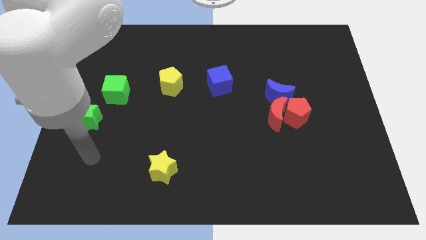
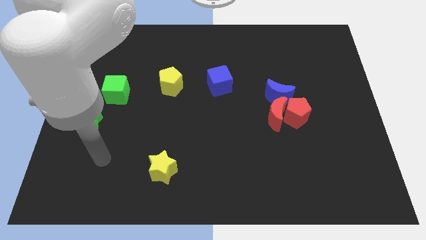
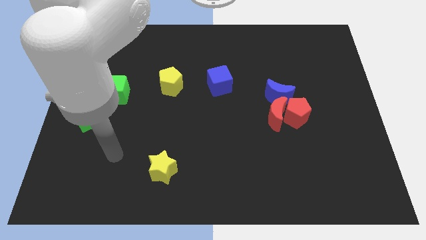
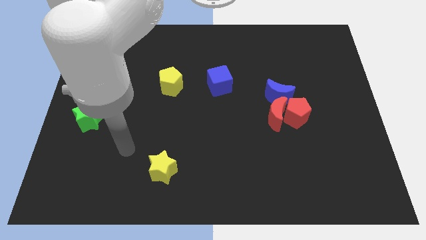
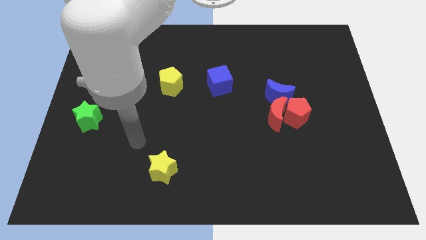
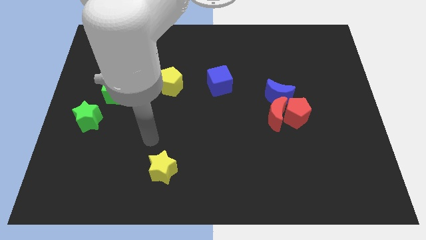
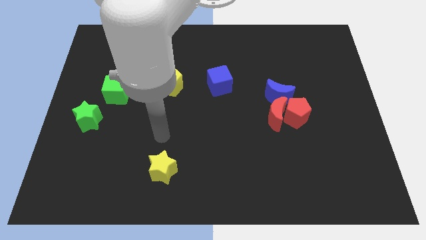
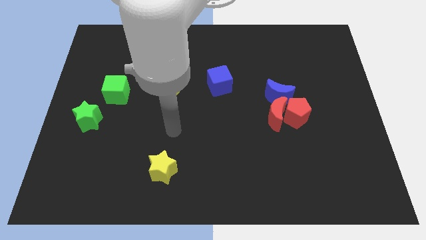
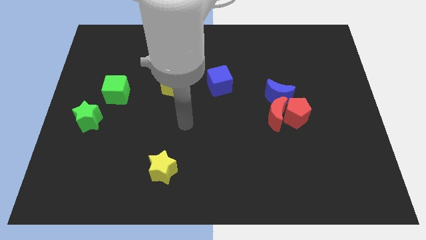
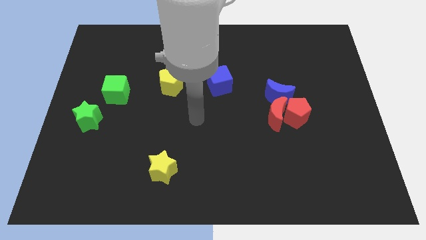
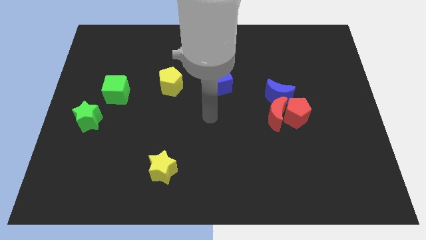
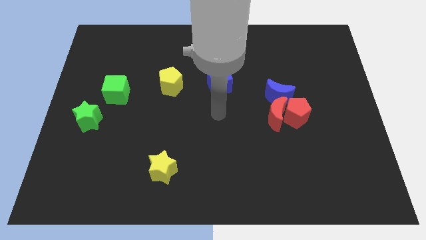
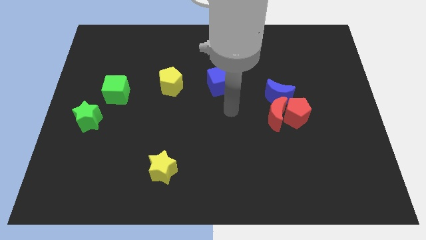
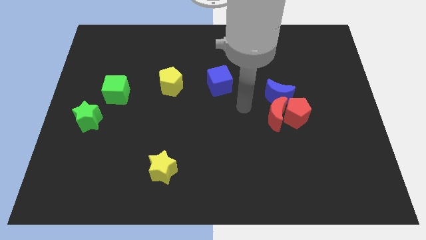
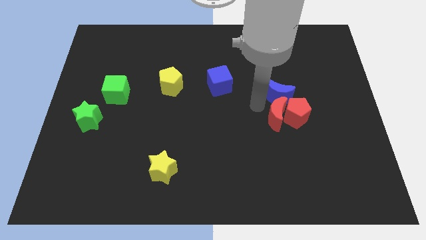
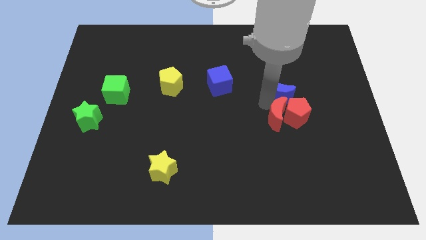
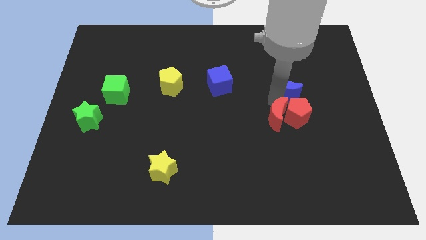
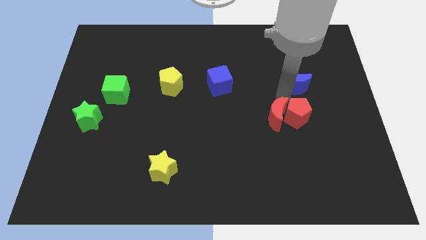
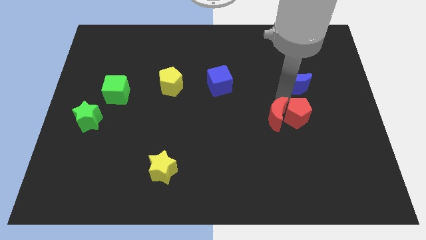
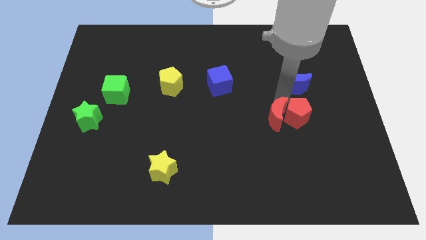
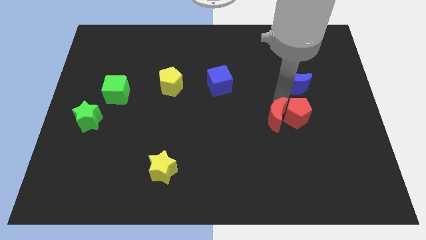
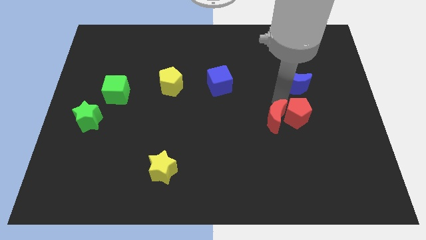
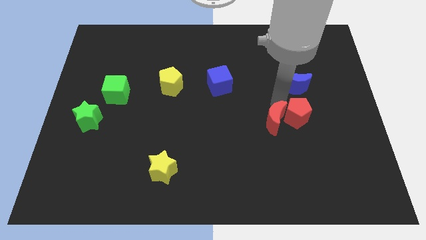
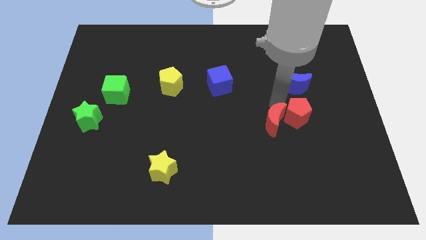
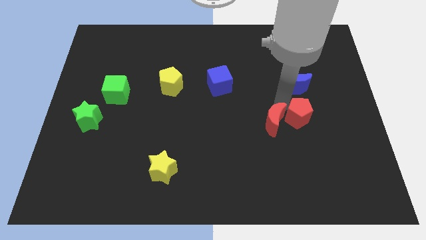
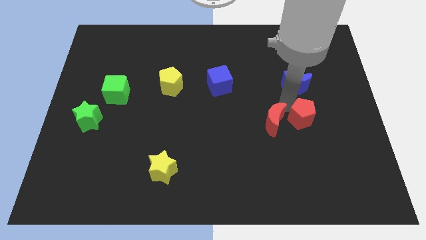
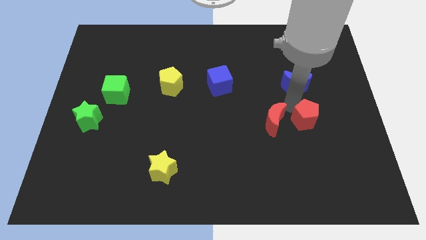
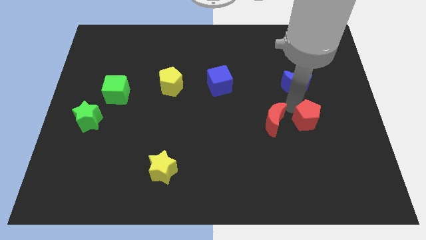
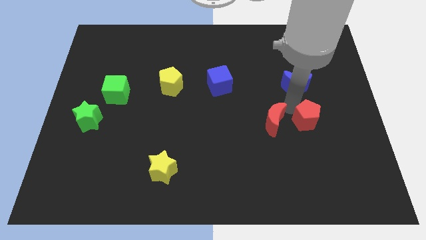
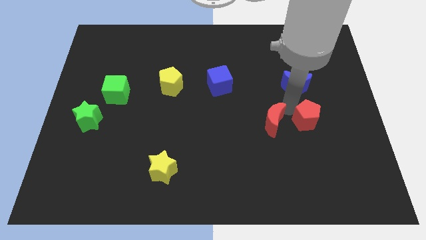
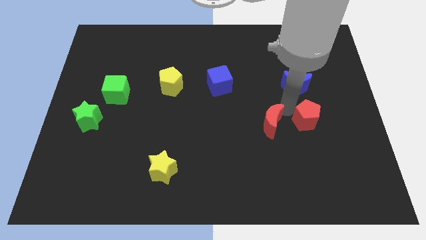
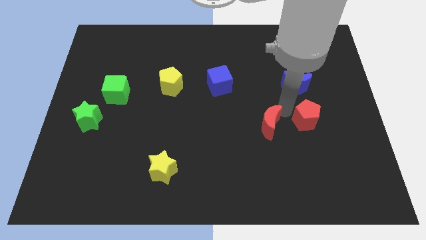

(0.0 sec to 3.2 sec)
separate the red moon from the red pentagon and blue moon

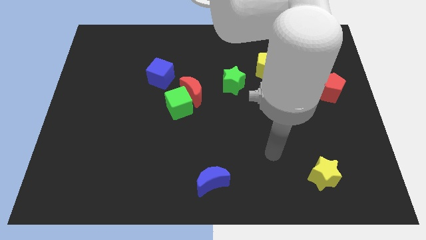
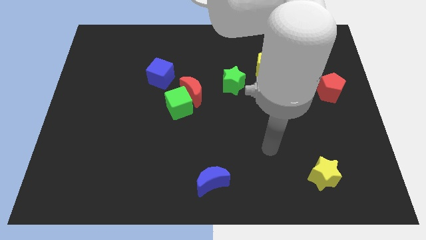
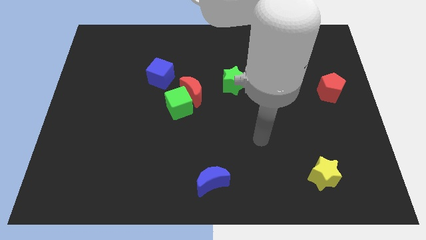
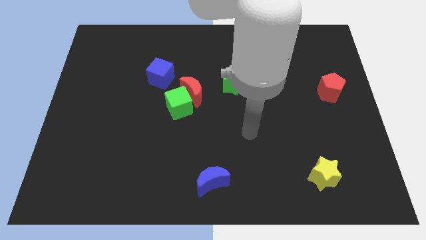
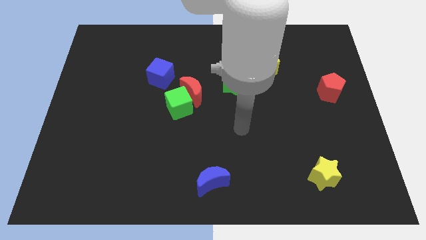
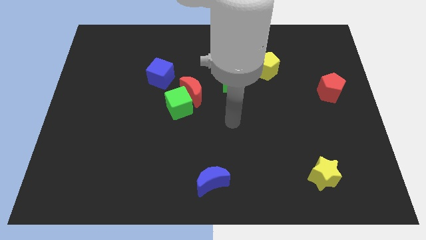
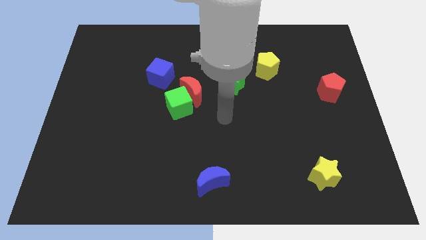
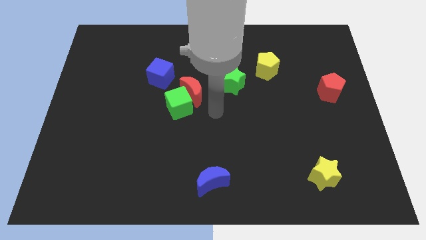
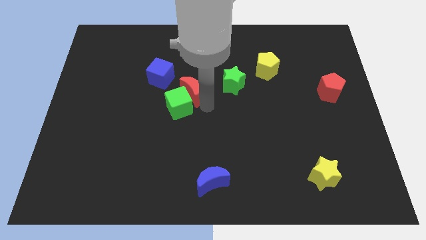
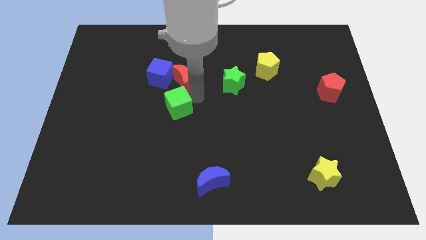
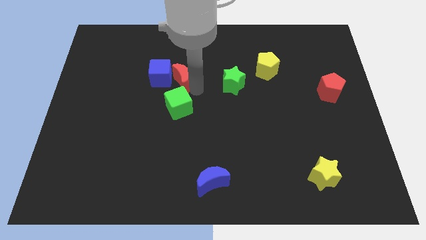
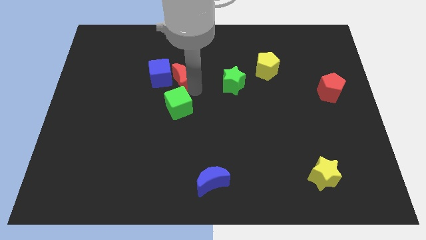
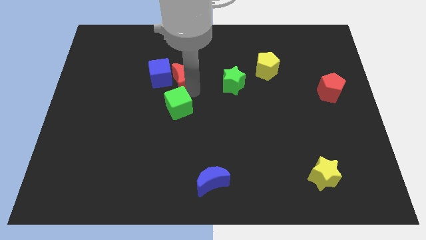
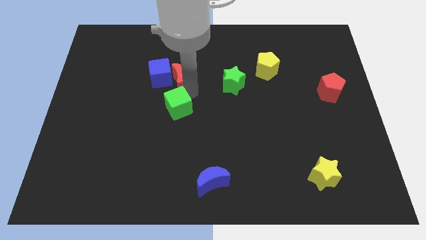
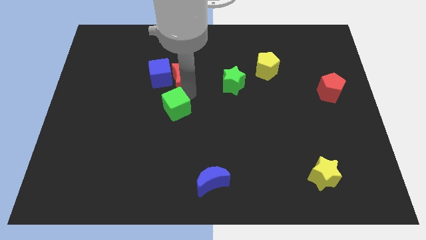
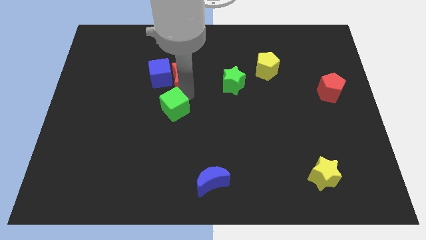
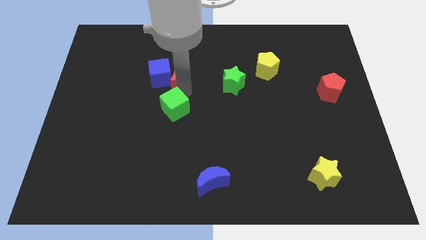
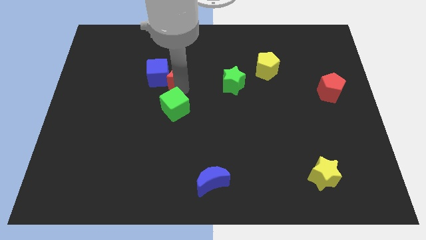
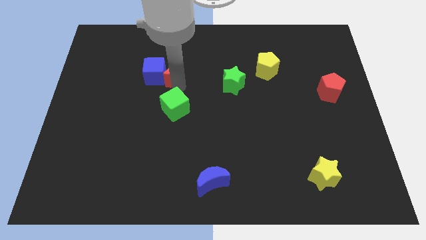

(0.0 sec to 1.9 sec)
separate the green cube from the red moon

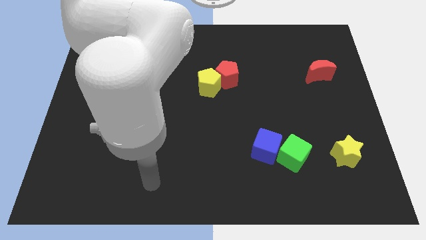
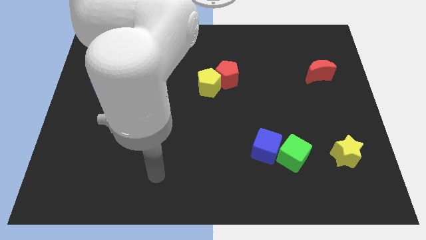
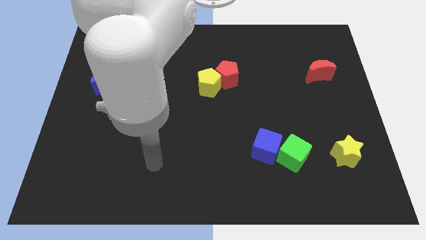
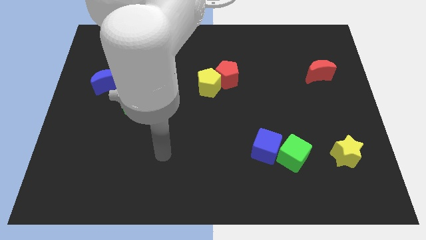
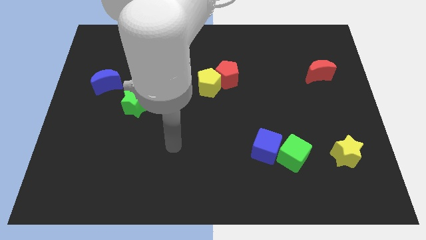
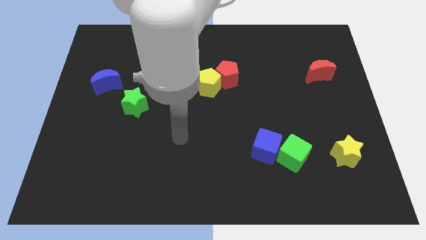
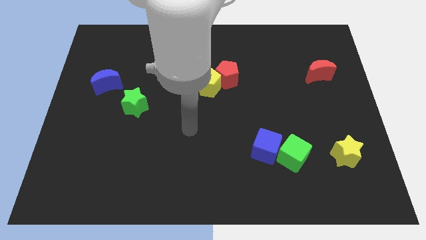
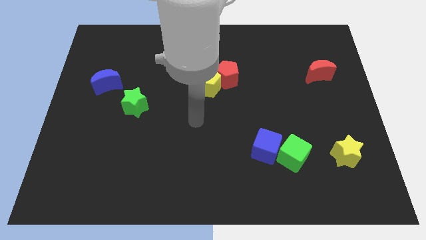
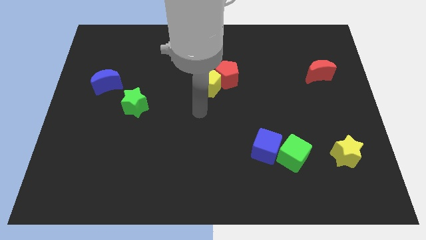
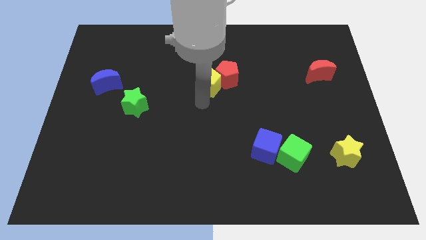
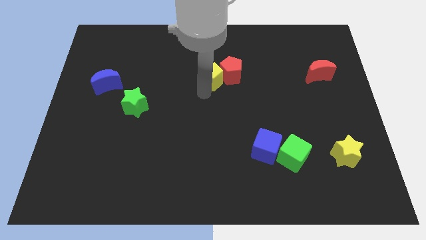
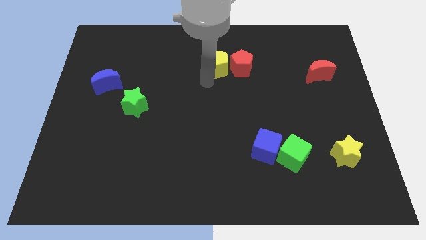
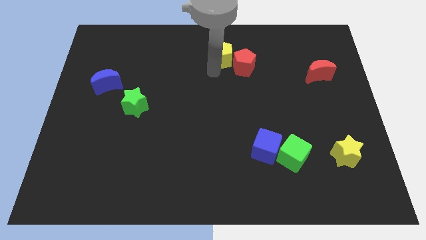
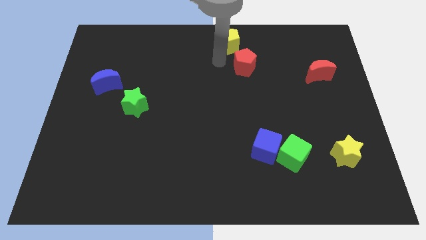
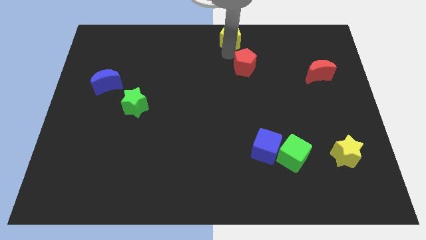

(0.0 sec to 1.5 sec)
move the red pentagon away from the yellow pentagon

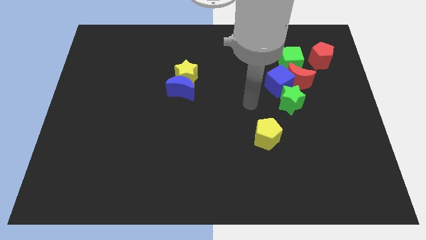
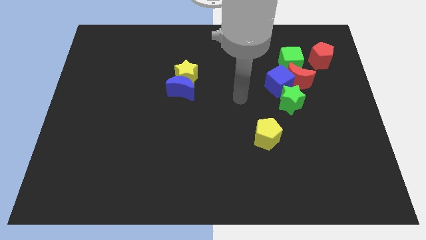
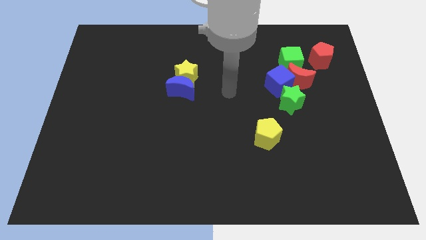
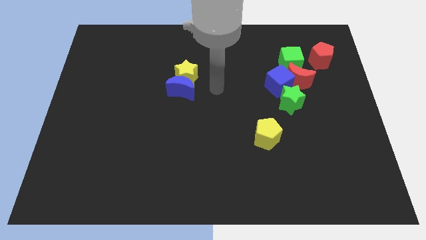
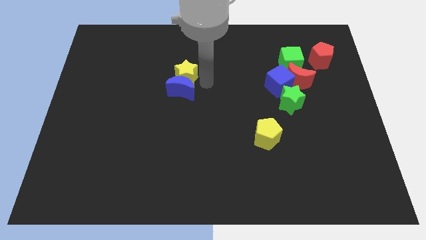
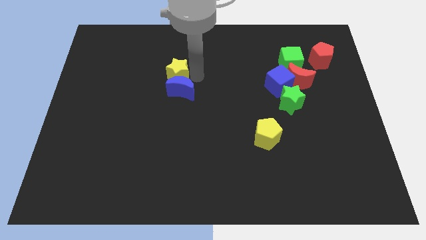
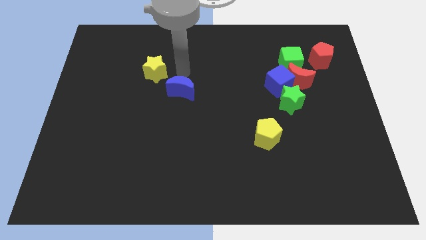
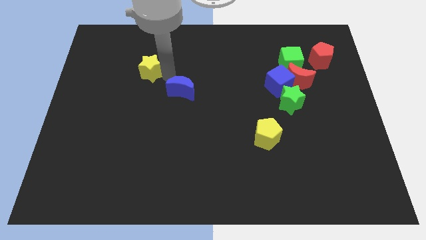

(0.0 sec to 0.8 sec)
separate the blue moon from the yellow star

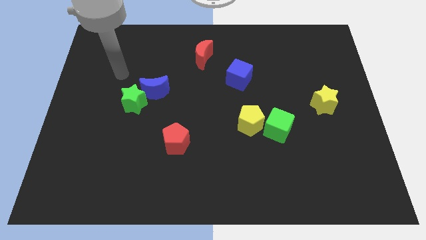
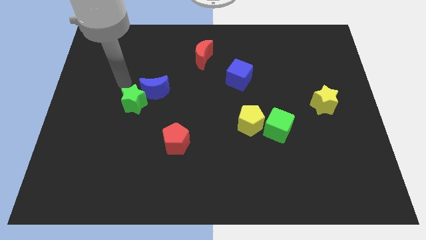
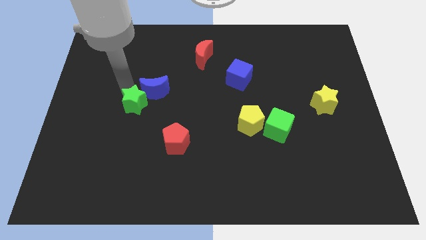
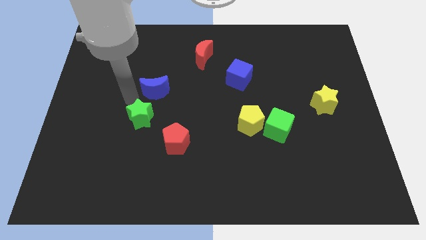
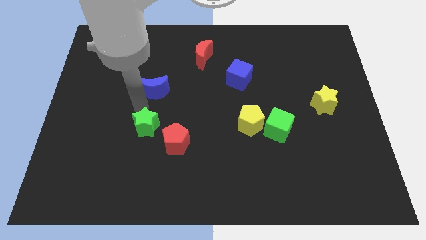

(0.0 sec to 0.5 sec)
pull the blue moon apart from the green star

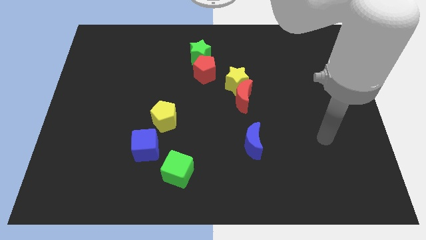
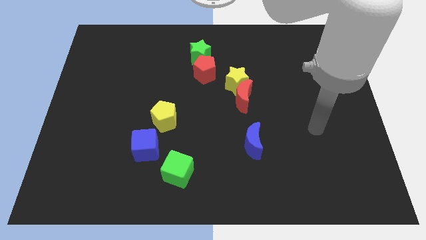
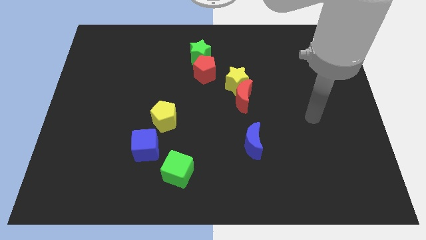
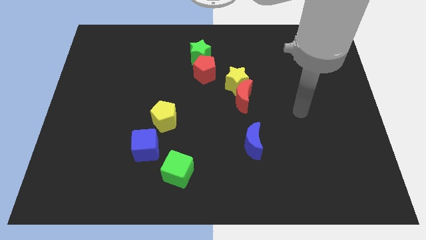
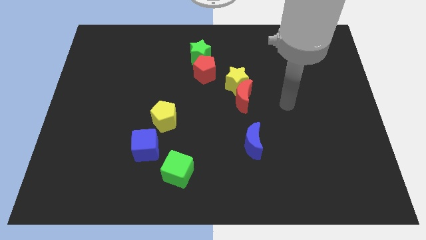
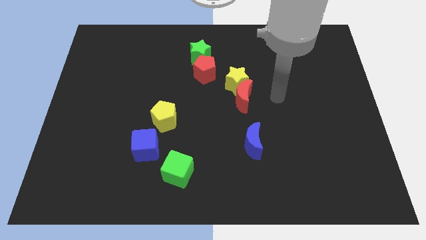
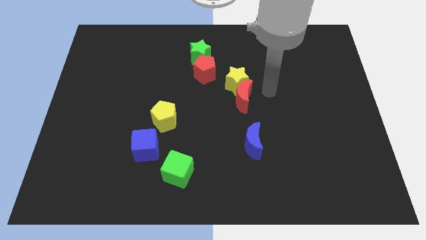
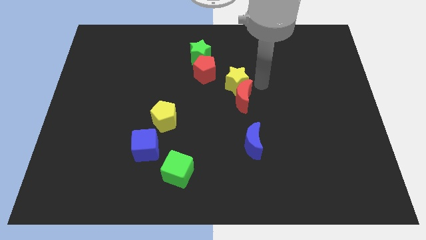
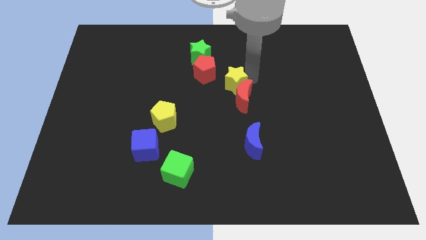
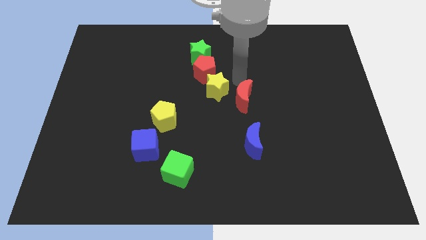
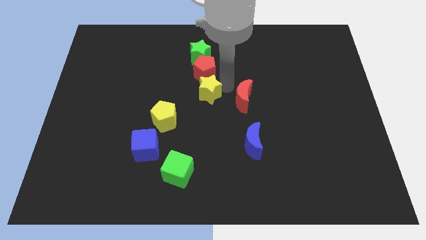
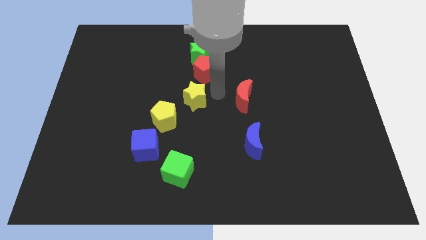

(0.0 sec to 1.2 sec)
move the red moon away from the yellow star

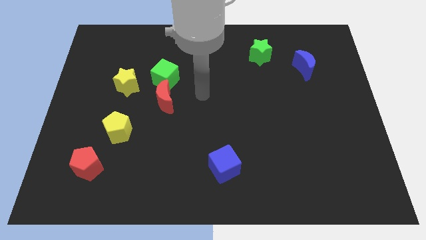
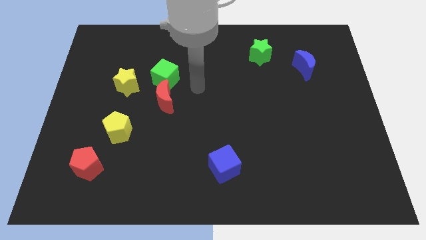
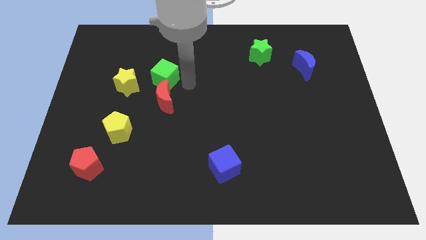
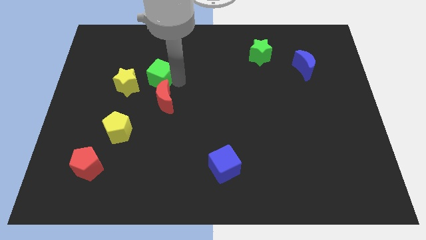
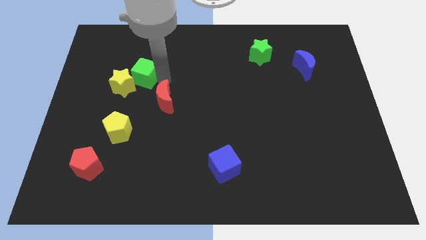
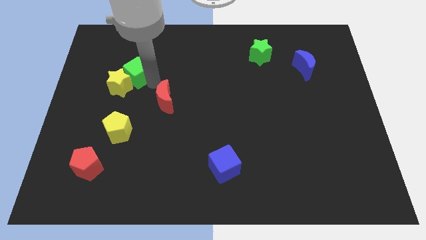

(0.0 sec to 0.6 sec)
move the red moon away from the green cube
